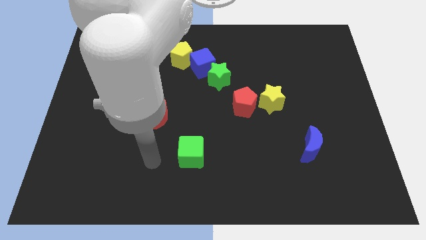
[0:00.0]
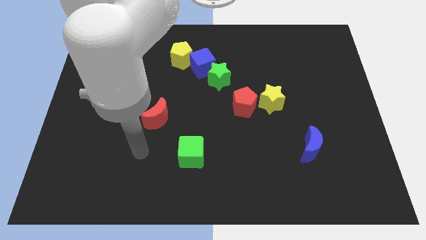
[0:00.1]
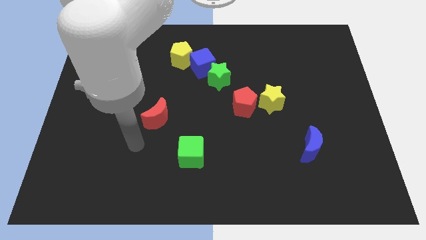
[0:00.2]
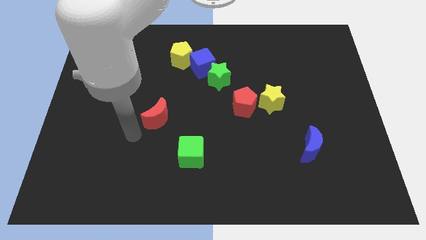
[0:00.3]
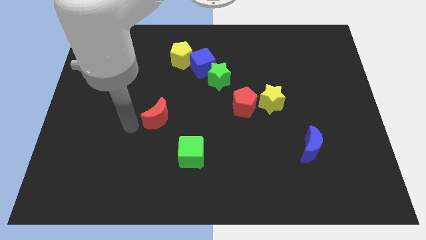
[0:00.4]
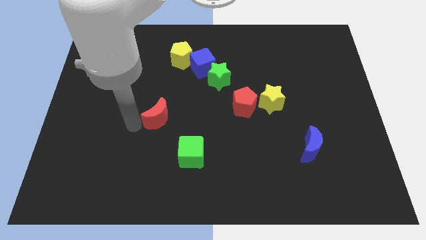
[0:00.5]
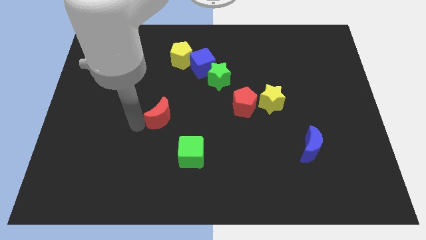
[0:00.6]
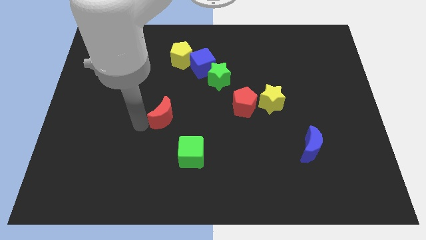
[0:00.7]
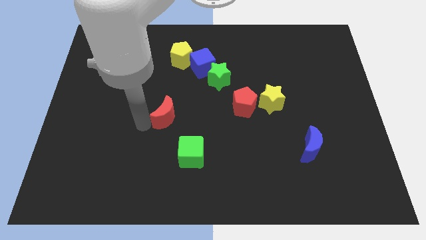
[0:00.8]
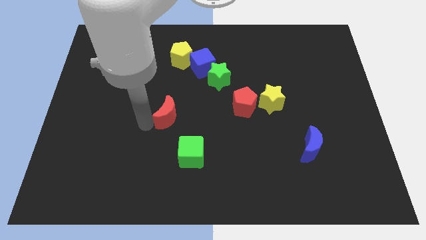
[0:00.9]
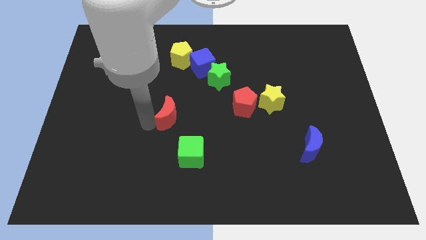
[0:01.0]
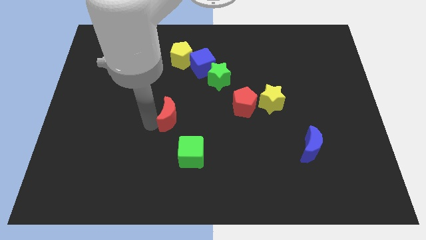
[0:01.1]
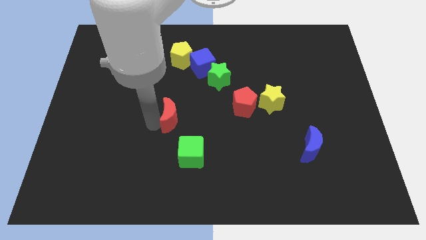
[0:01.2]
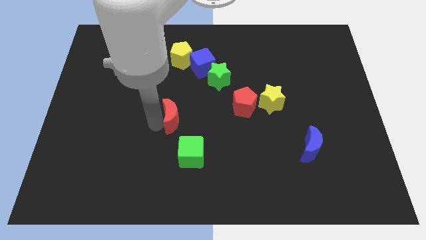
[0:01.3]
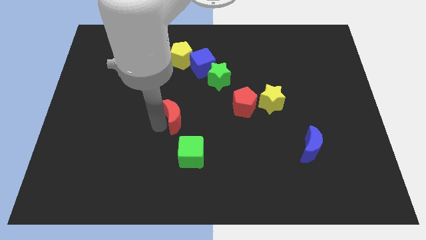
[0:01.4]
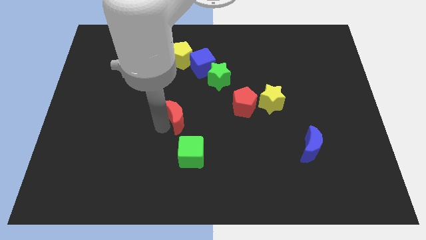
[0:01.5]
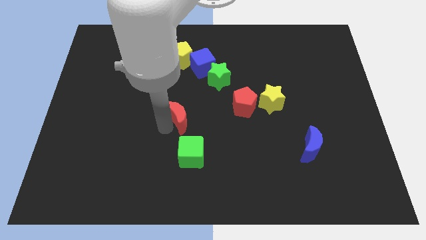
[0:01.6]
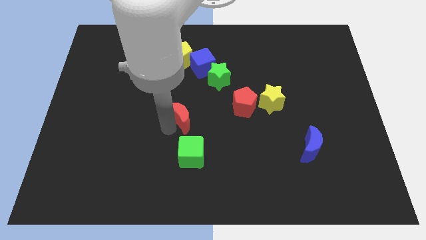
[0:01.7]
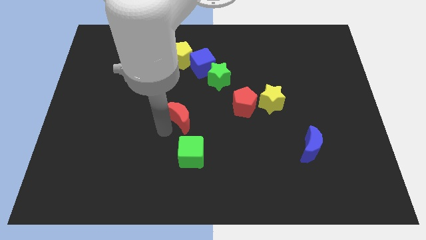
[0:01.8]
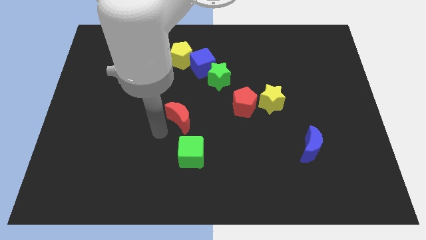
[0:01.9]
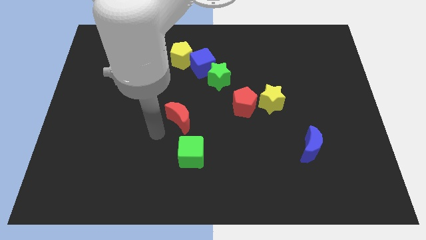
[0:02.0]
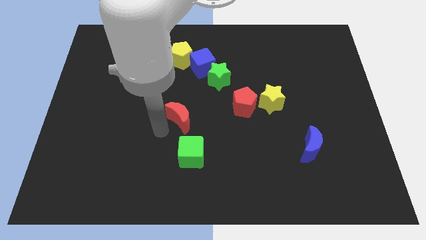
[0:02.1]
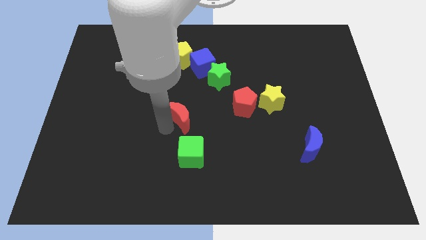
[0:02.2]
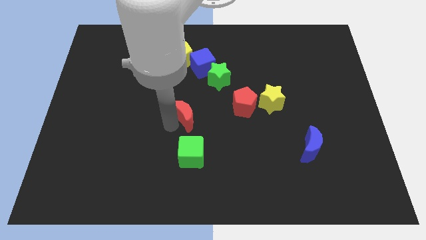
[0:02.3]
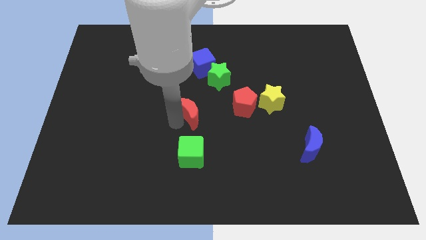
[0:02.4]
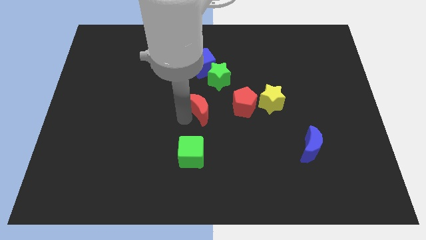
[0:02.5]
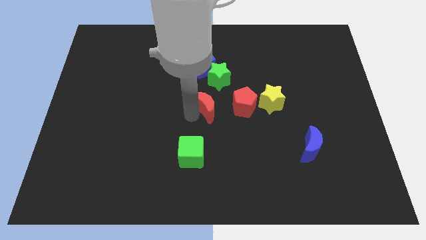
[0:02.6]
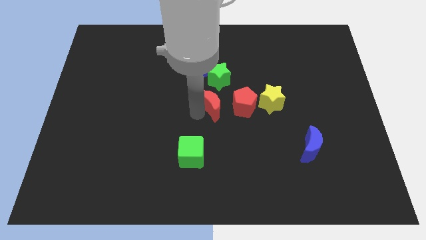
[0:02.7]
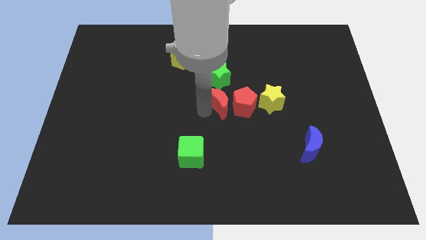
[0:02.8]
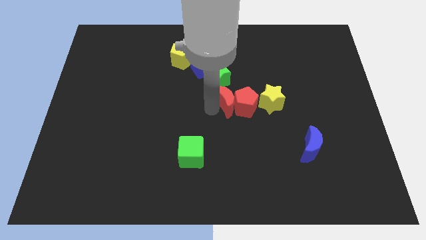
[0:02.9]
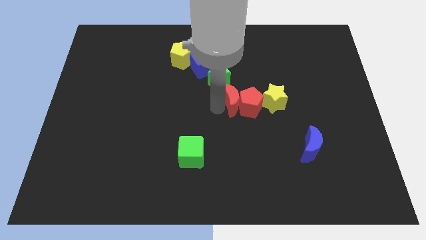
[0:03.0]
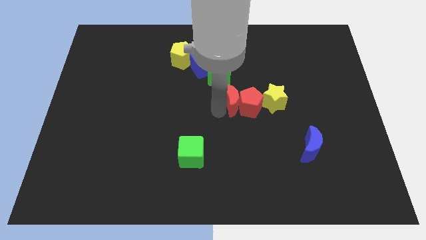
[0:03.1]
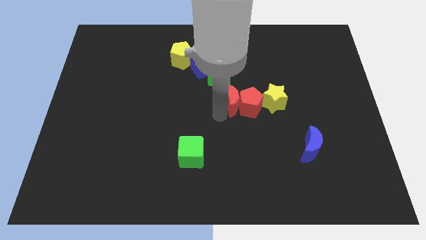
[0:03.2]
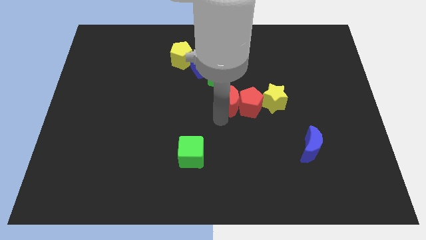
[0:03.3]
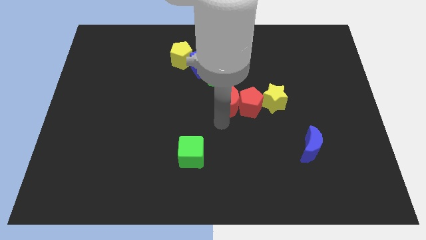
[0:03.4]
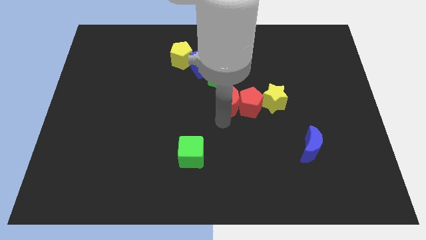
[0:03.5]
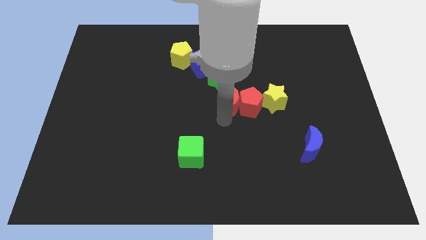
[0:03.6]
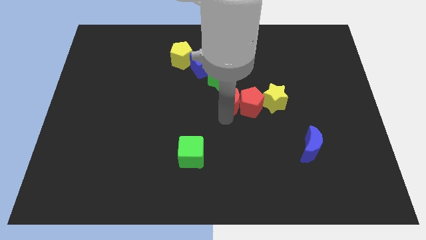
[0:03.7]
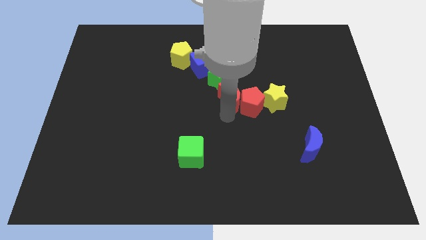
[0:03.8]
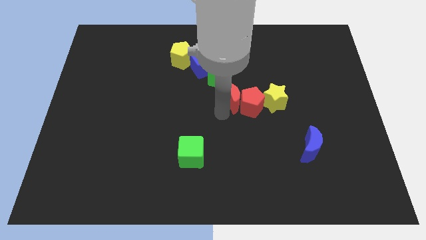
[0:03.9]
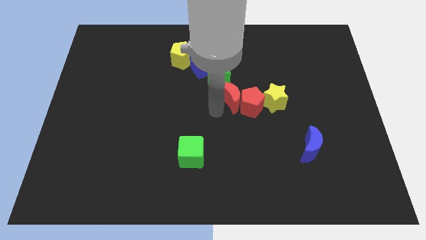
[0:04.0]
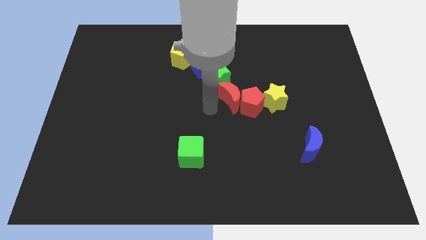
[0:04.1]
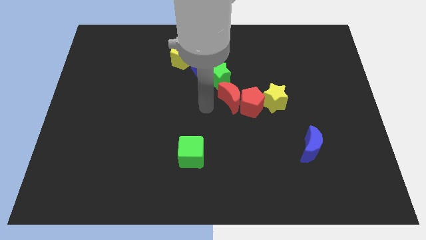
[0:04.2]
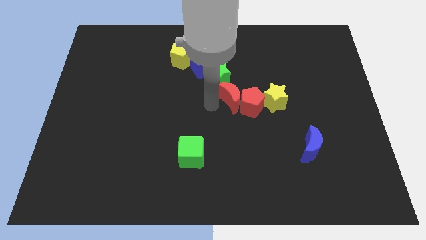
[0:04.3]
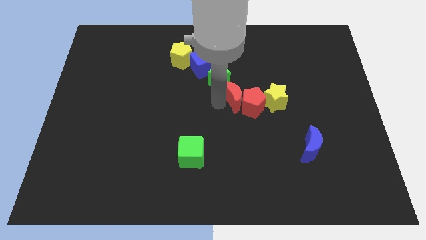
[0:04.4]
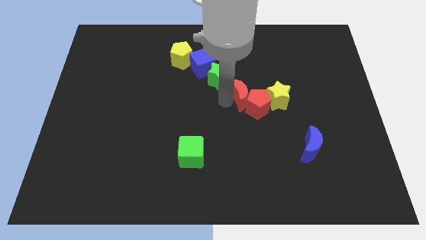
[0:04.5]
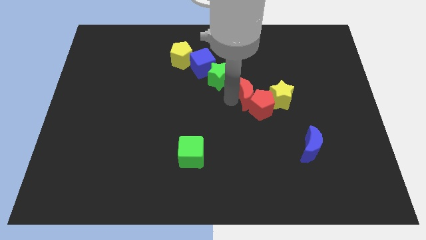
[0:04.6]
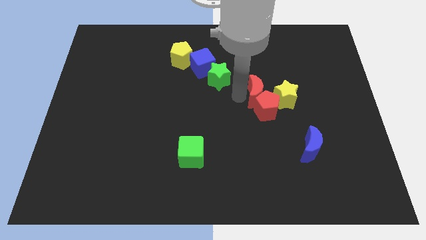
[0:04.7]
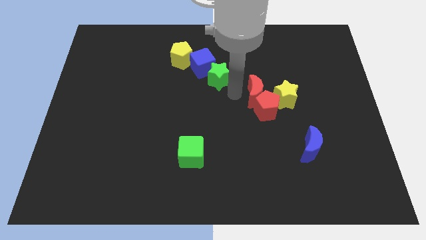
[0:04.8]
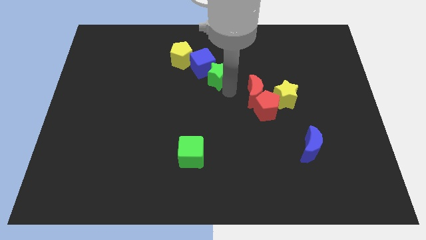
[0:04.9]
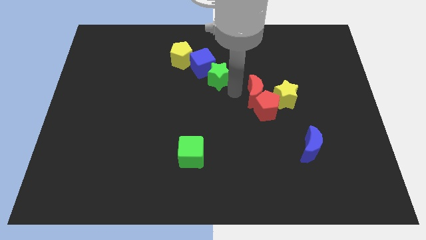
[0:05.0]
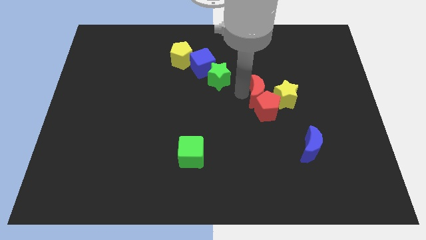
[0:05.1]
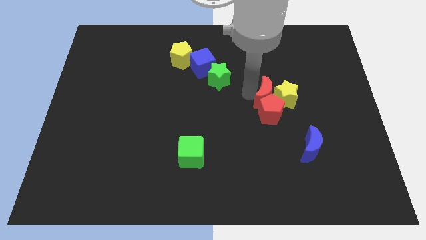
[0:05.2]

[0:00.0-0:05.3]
slide the red moon close to the yellow star

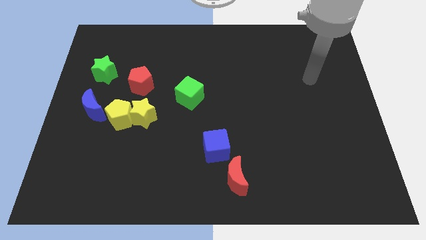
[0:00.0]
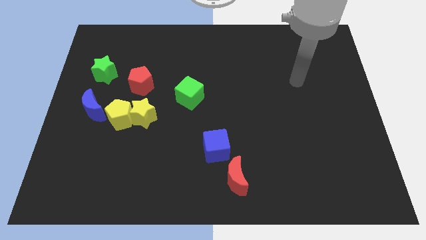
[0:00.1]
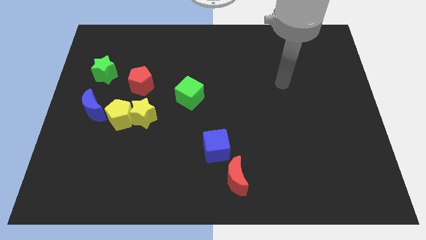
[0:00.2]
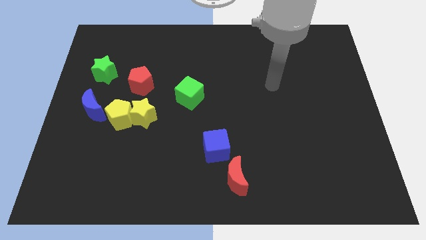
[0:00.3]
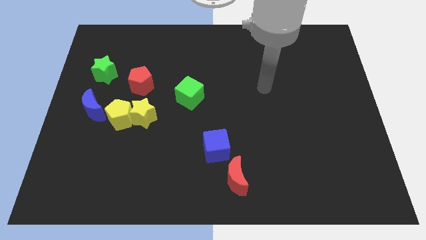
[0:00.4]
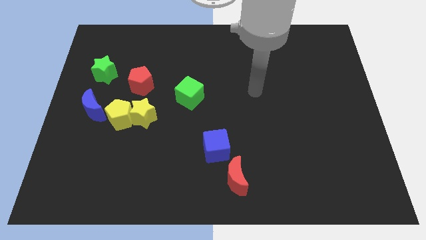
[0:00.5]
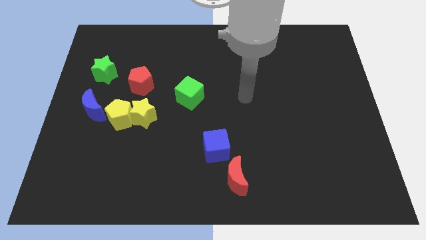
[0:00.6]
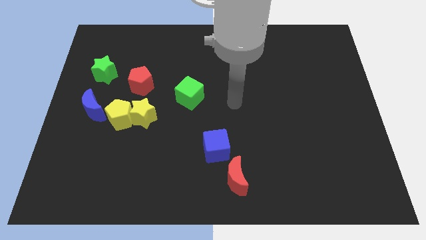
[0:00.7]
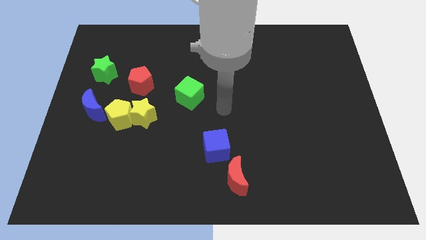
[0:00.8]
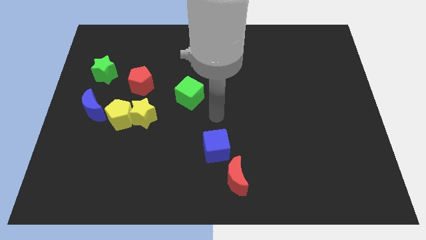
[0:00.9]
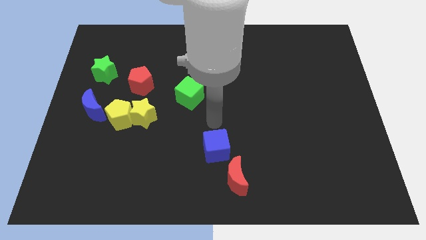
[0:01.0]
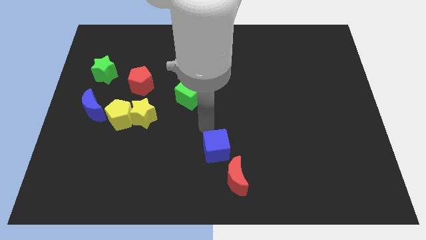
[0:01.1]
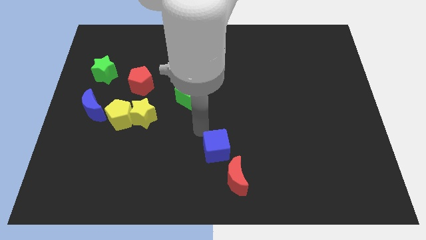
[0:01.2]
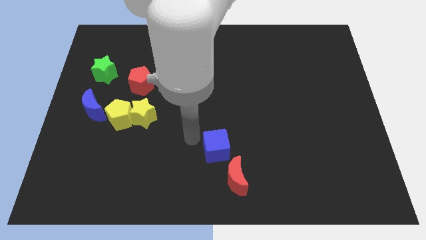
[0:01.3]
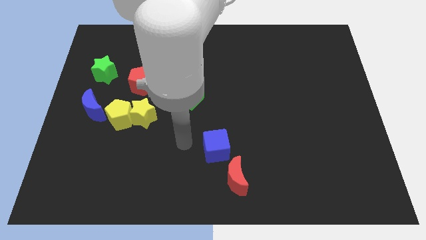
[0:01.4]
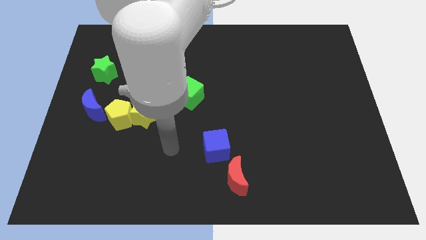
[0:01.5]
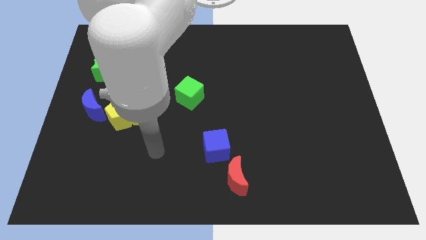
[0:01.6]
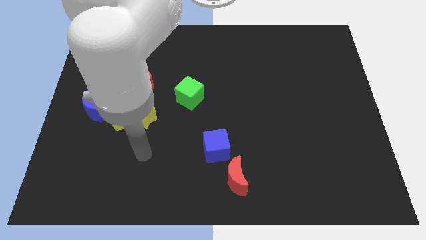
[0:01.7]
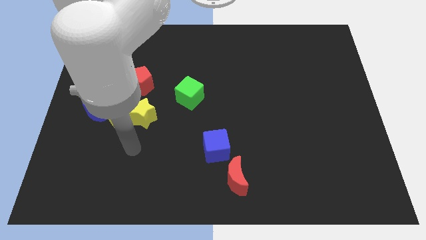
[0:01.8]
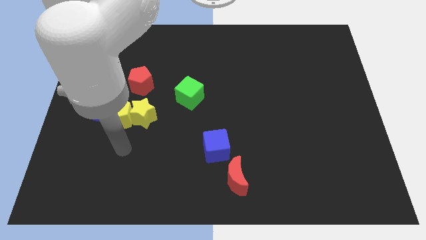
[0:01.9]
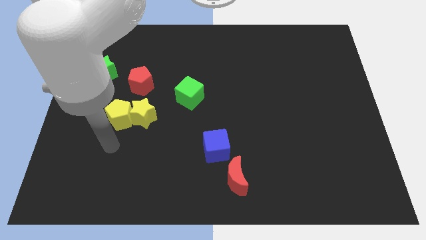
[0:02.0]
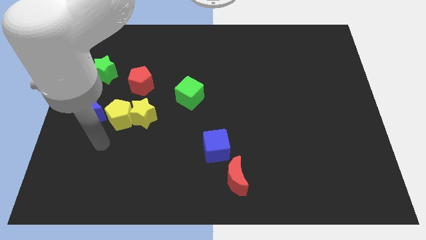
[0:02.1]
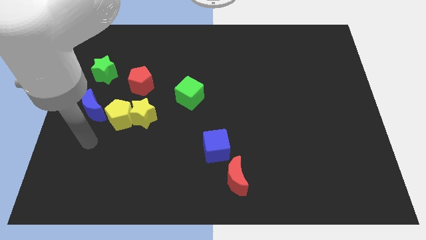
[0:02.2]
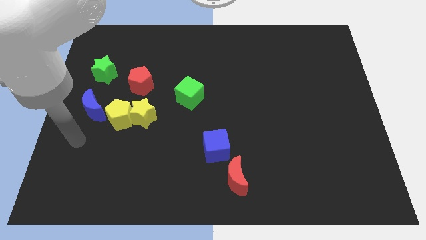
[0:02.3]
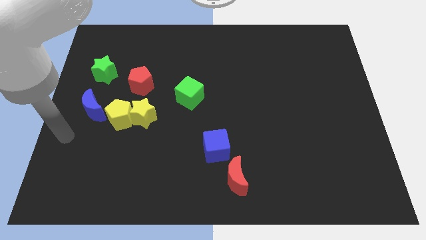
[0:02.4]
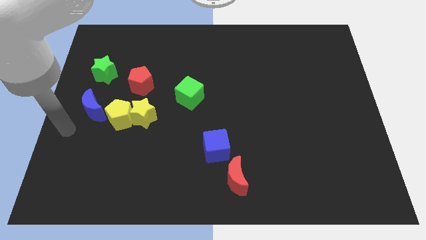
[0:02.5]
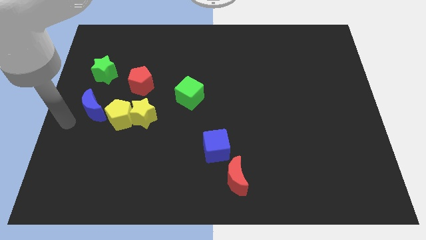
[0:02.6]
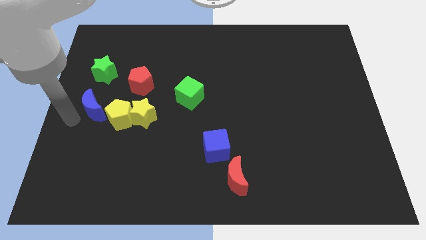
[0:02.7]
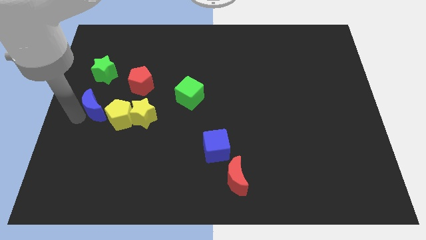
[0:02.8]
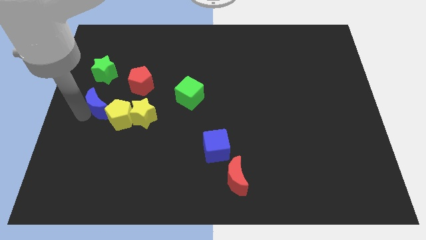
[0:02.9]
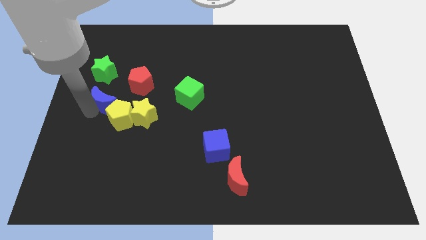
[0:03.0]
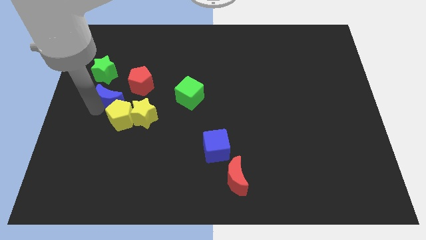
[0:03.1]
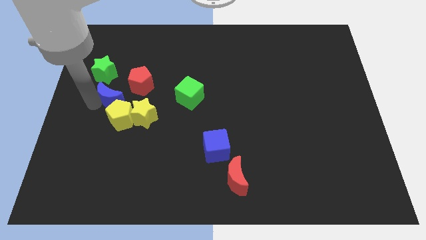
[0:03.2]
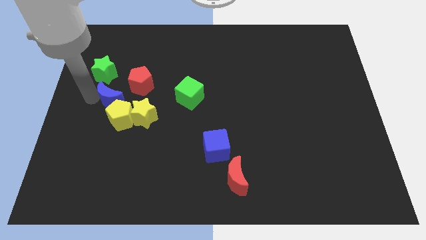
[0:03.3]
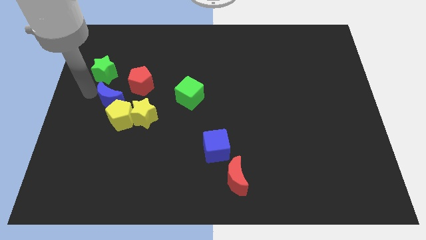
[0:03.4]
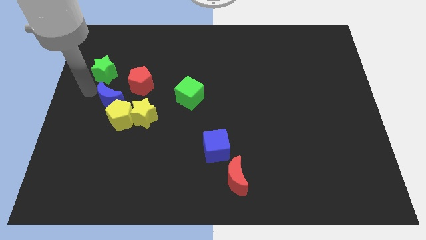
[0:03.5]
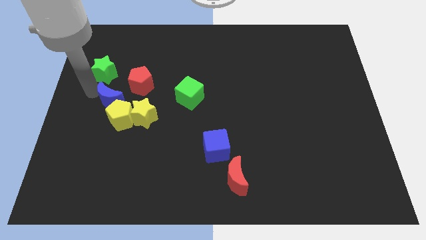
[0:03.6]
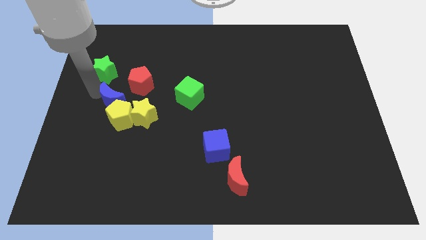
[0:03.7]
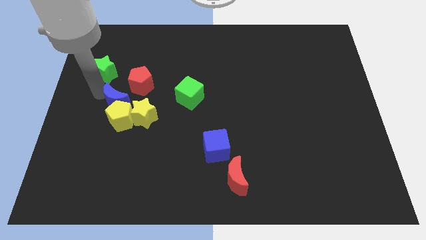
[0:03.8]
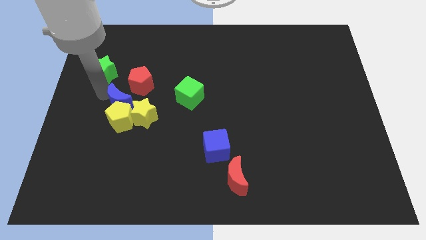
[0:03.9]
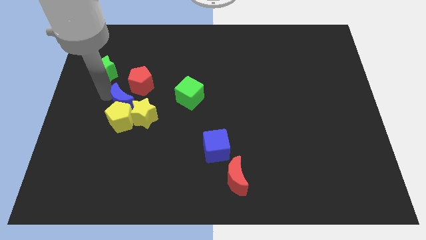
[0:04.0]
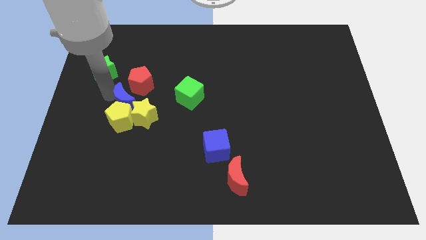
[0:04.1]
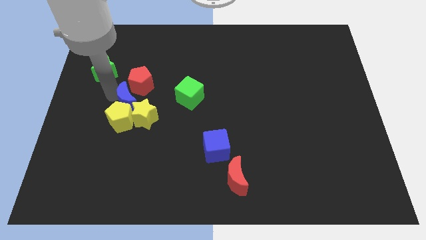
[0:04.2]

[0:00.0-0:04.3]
move the blue moon towards the yellow star
